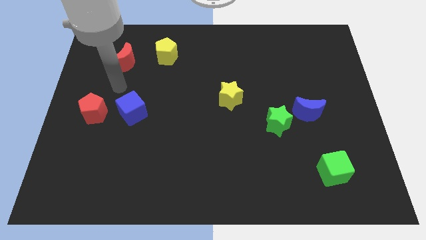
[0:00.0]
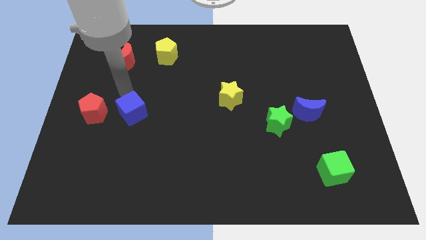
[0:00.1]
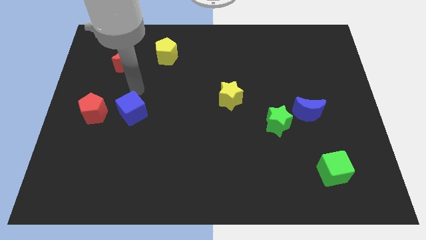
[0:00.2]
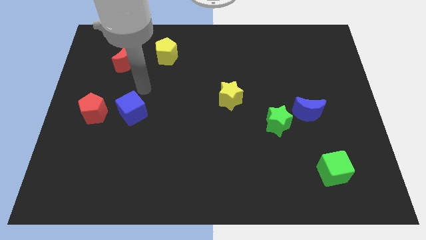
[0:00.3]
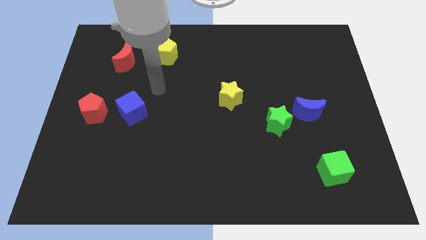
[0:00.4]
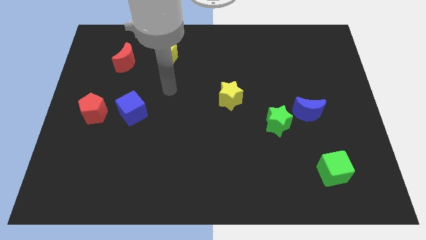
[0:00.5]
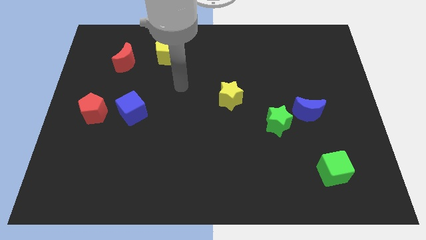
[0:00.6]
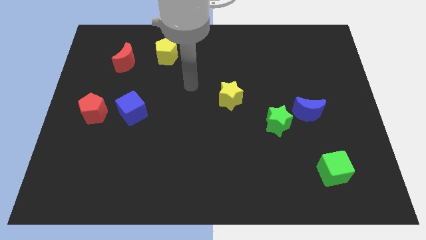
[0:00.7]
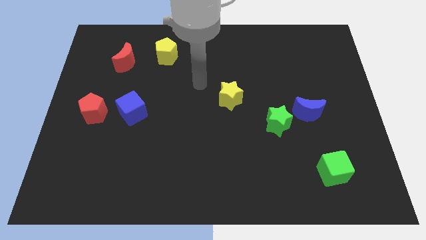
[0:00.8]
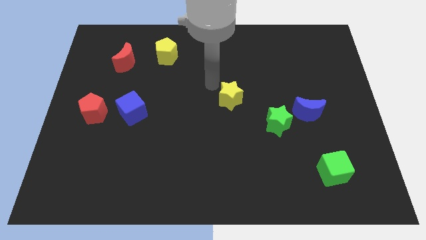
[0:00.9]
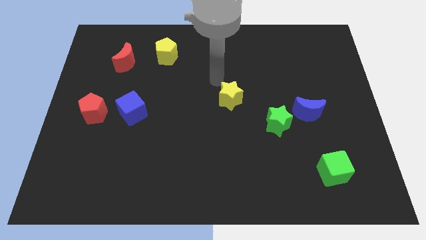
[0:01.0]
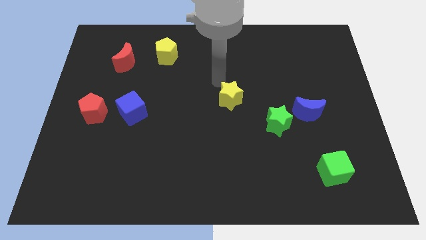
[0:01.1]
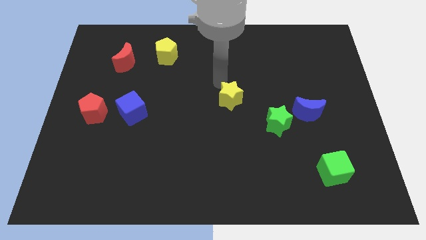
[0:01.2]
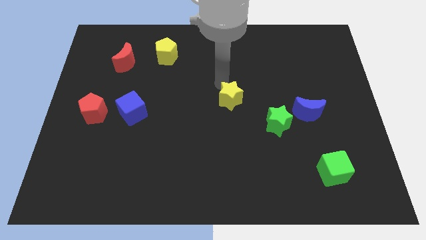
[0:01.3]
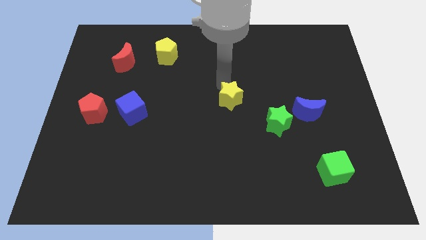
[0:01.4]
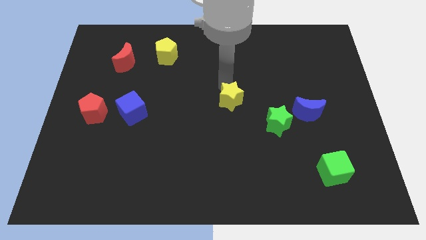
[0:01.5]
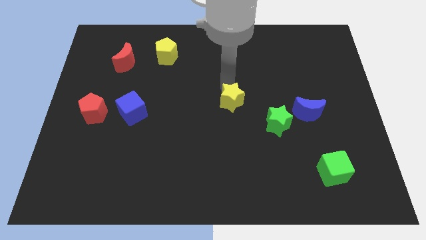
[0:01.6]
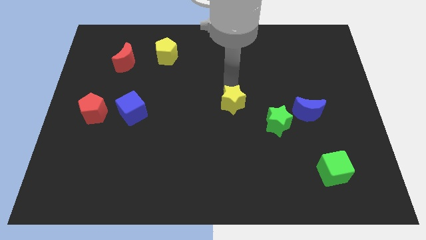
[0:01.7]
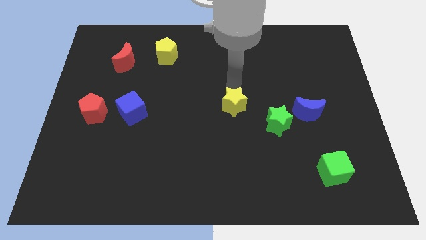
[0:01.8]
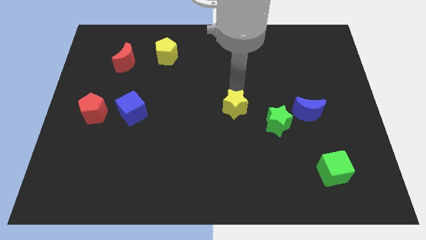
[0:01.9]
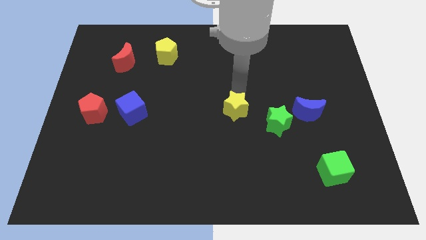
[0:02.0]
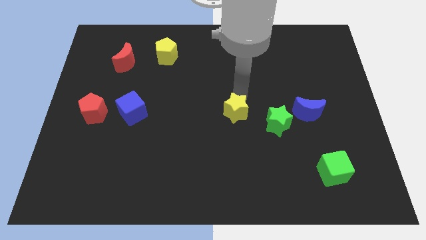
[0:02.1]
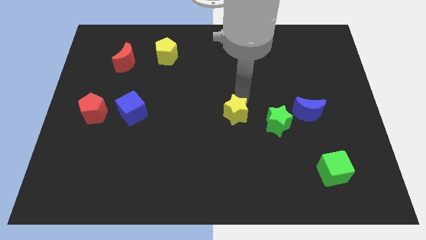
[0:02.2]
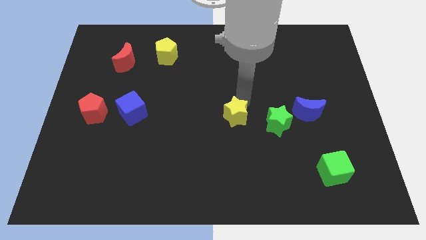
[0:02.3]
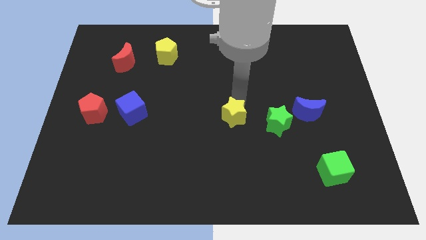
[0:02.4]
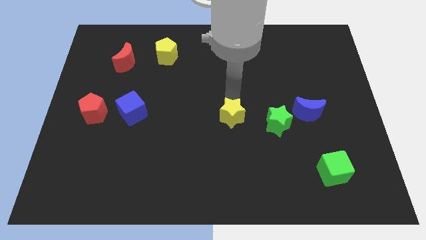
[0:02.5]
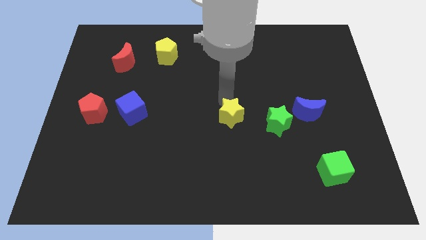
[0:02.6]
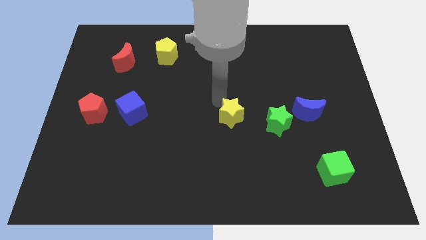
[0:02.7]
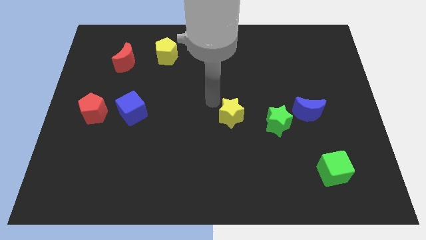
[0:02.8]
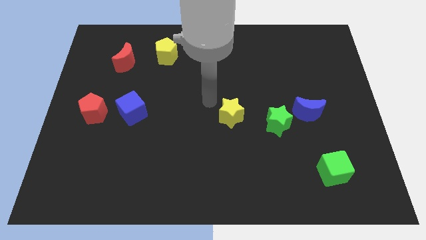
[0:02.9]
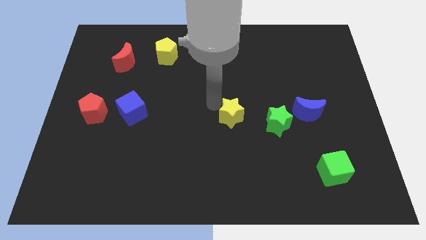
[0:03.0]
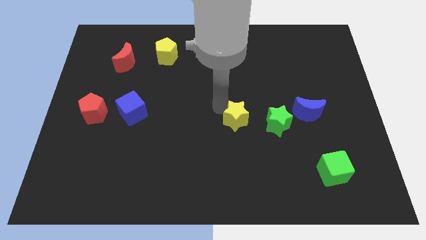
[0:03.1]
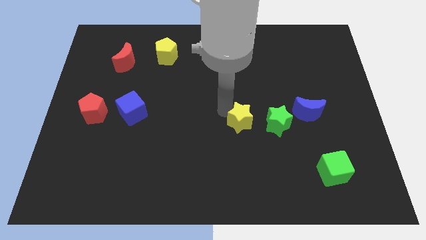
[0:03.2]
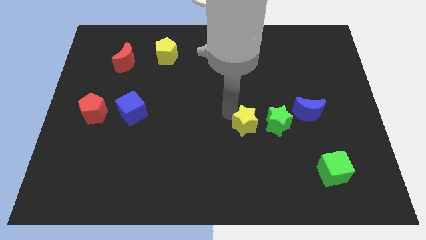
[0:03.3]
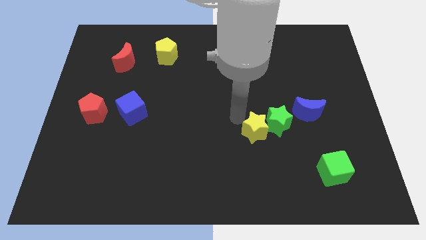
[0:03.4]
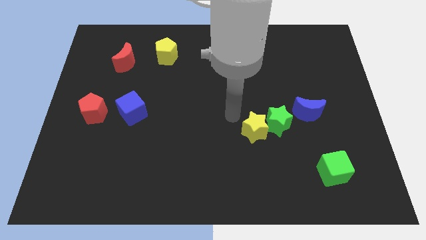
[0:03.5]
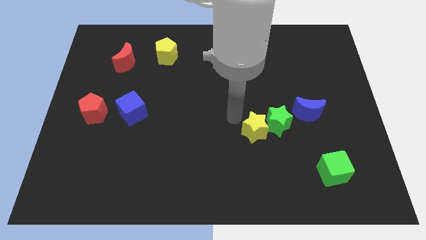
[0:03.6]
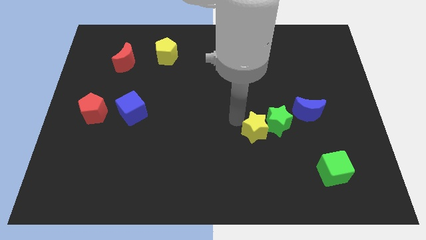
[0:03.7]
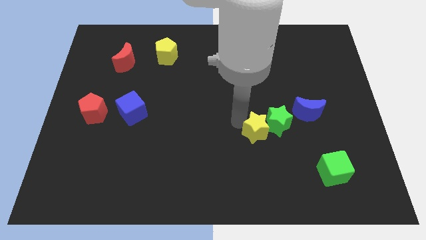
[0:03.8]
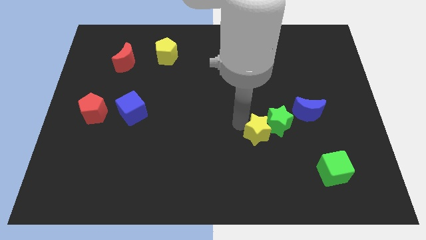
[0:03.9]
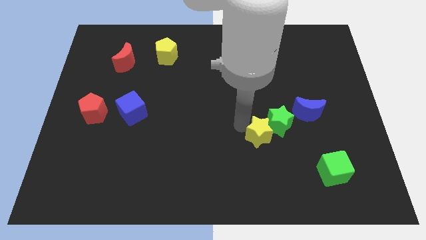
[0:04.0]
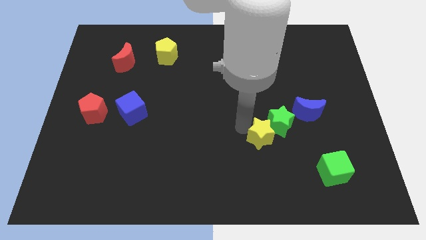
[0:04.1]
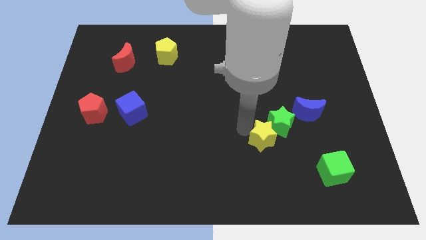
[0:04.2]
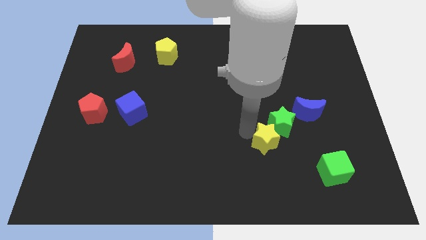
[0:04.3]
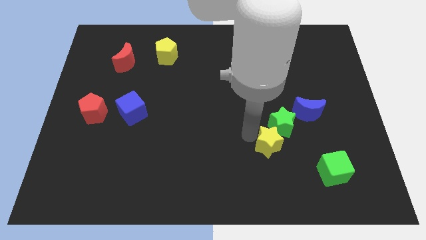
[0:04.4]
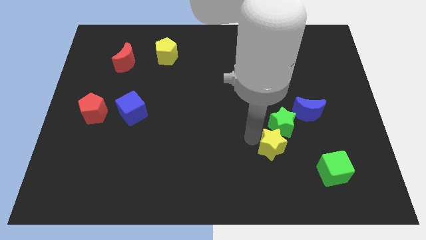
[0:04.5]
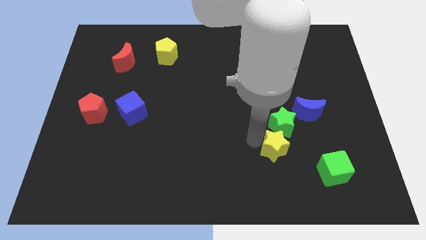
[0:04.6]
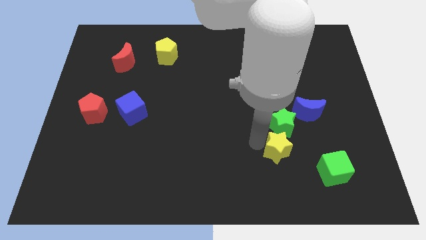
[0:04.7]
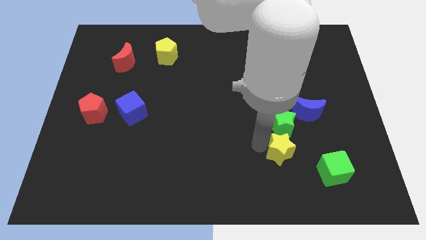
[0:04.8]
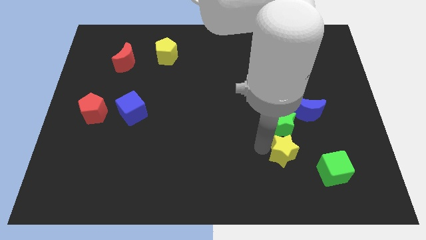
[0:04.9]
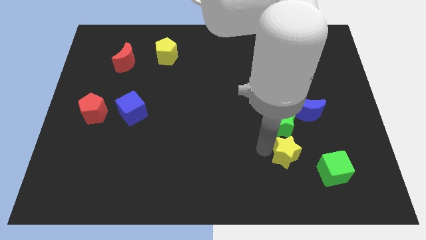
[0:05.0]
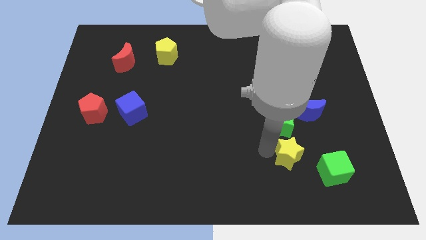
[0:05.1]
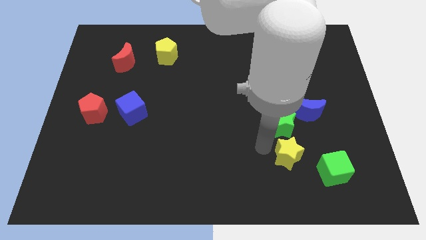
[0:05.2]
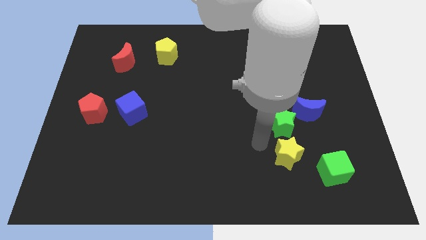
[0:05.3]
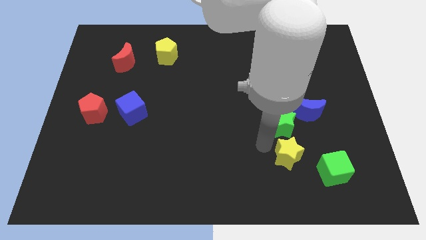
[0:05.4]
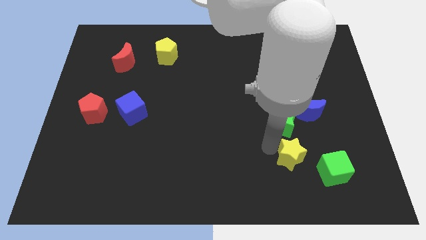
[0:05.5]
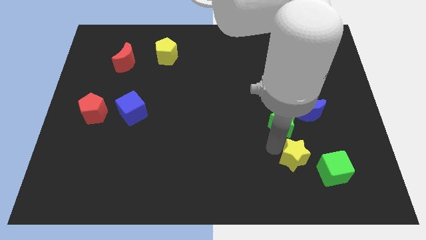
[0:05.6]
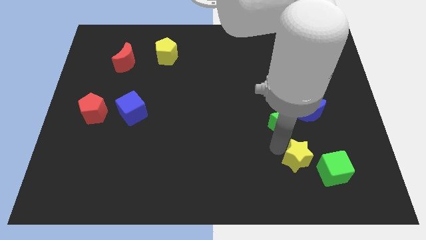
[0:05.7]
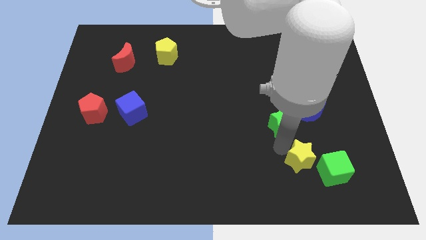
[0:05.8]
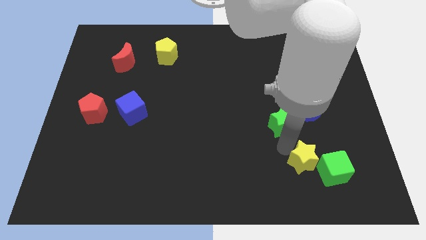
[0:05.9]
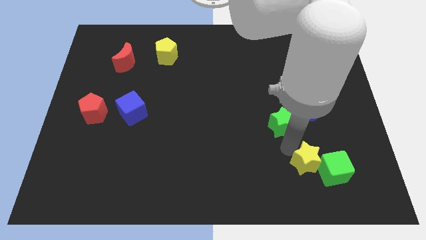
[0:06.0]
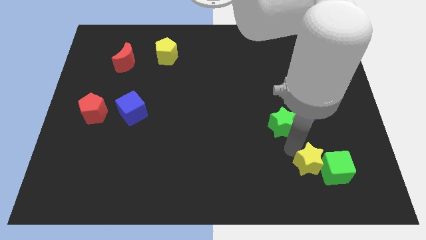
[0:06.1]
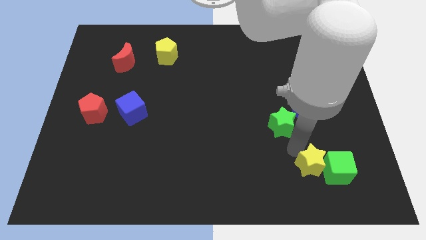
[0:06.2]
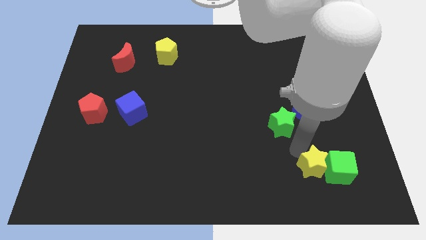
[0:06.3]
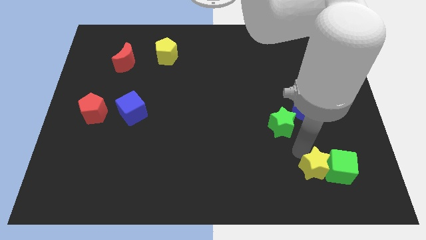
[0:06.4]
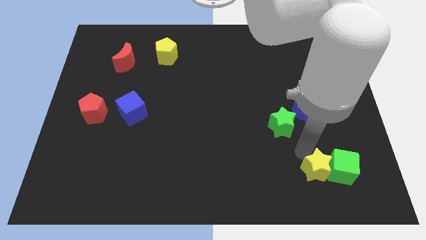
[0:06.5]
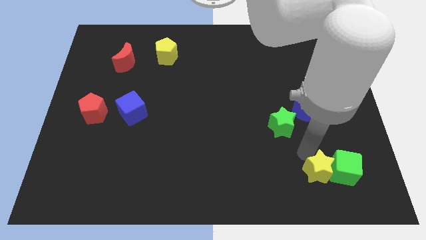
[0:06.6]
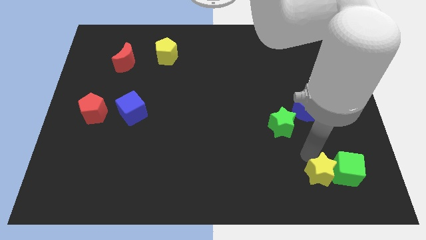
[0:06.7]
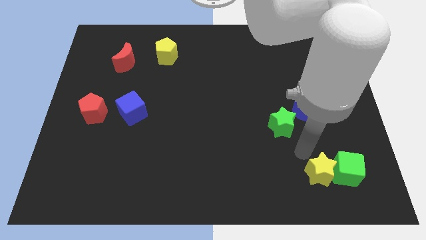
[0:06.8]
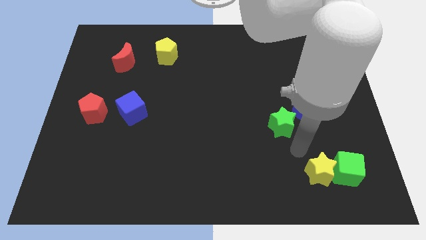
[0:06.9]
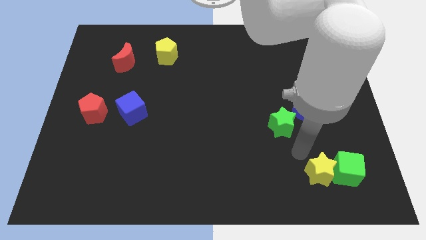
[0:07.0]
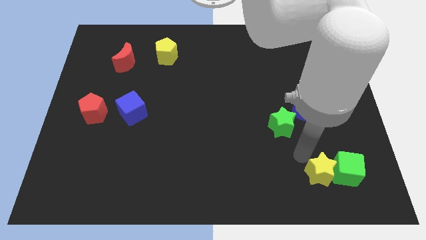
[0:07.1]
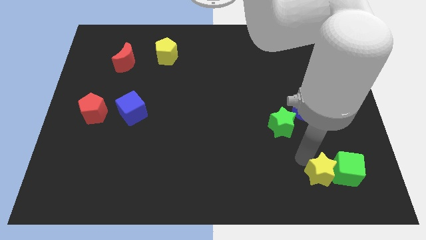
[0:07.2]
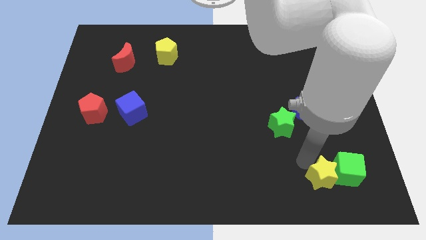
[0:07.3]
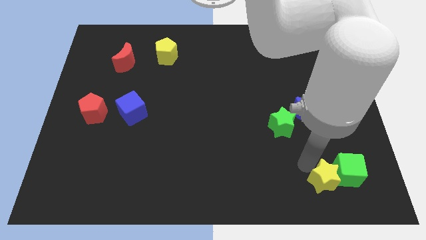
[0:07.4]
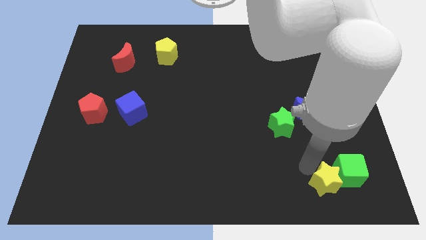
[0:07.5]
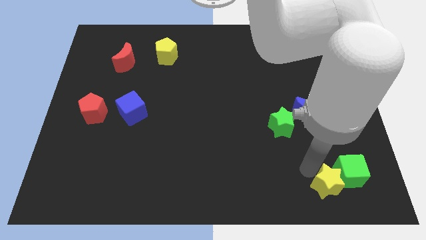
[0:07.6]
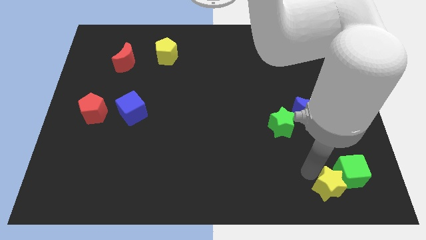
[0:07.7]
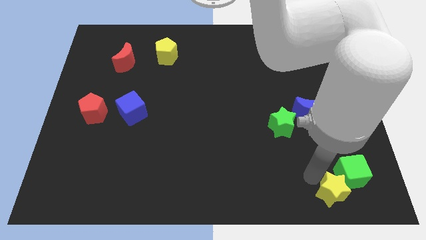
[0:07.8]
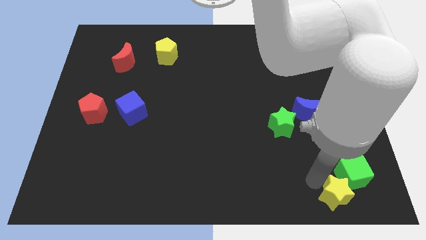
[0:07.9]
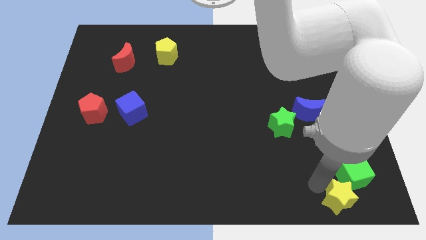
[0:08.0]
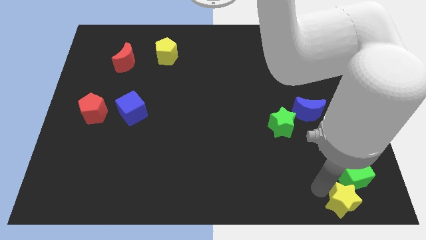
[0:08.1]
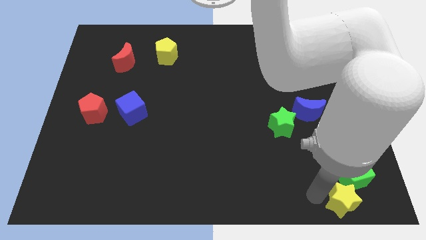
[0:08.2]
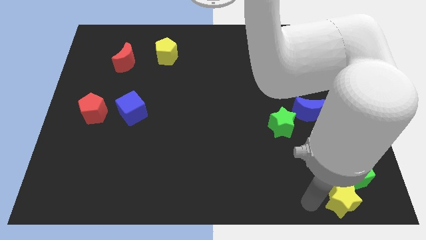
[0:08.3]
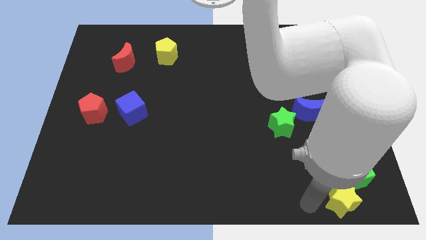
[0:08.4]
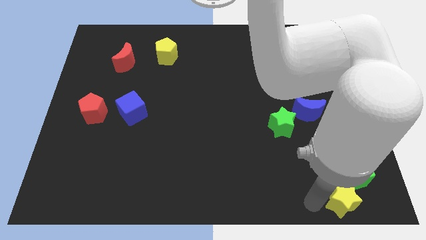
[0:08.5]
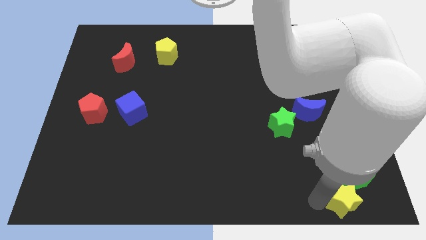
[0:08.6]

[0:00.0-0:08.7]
slide the yellow star to the bottom right of the board
